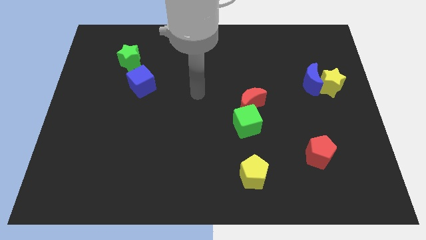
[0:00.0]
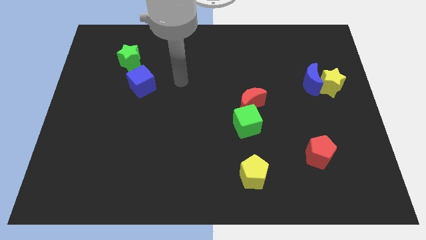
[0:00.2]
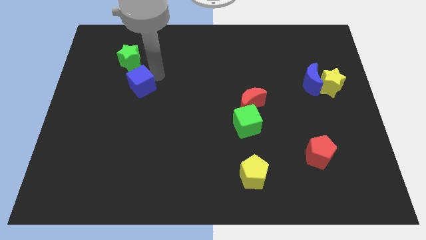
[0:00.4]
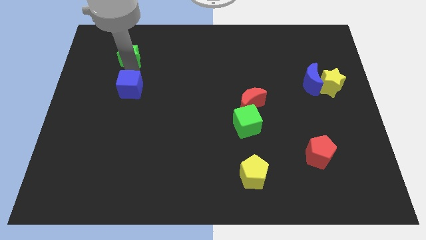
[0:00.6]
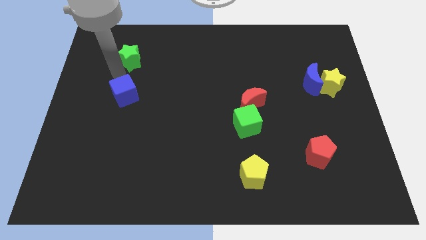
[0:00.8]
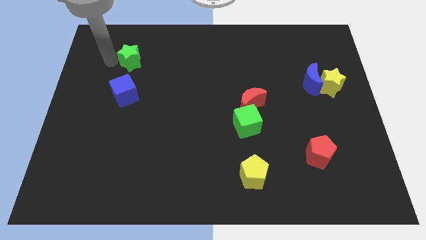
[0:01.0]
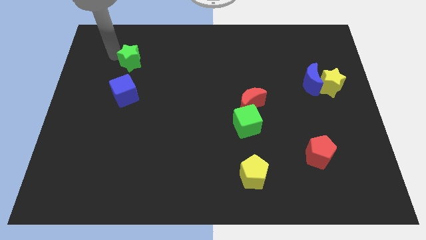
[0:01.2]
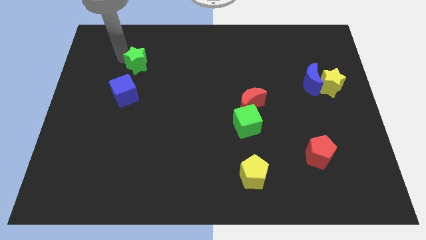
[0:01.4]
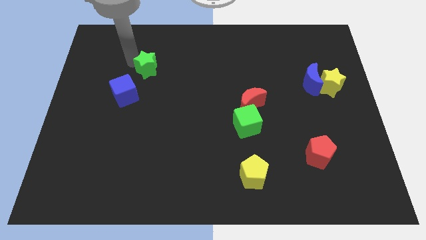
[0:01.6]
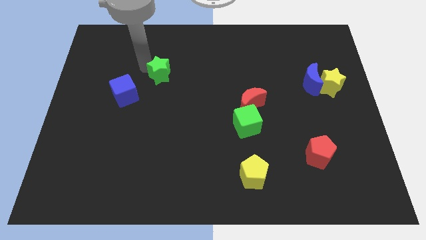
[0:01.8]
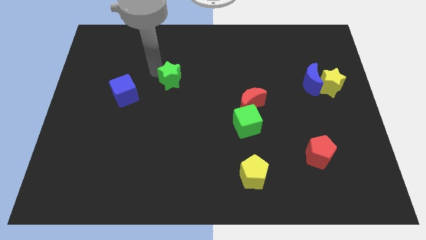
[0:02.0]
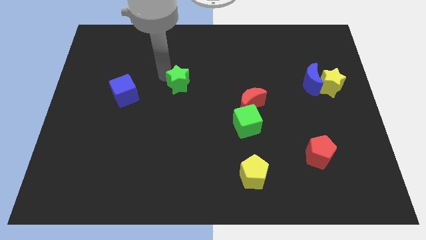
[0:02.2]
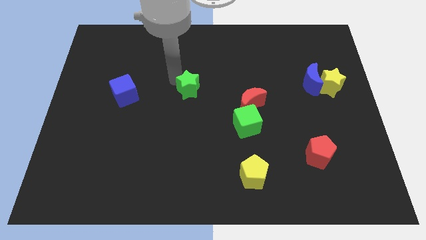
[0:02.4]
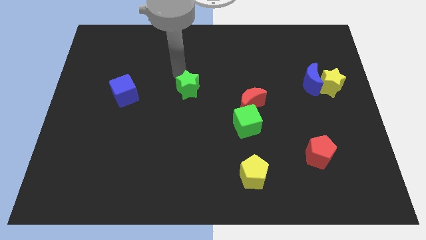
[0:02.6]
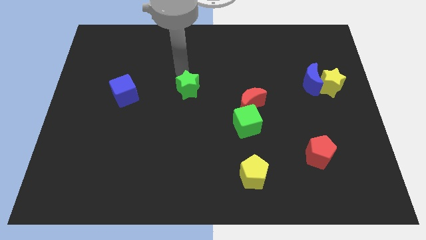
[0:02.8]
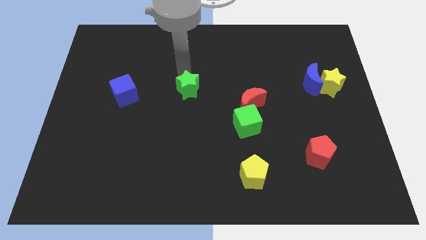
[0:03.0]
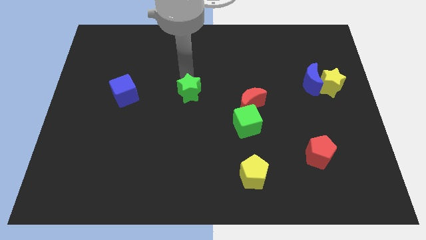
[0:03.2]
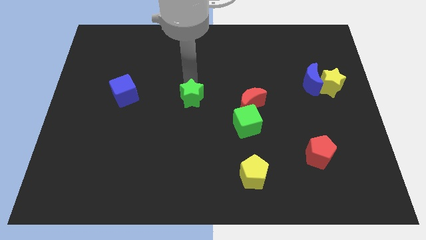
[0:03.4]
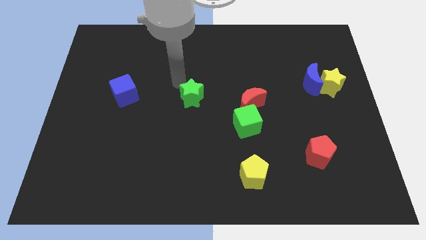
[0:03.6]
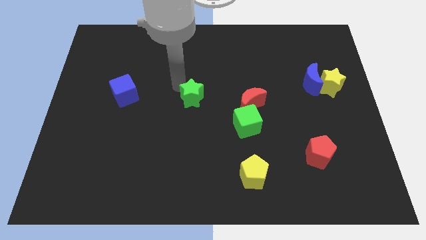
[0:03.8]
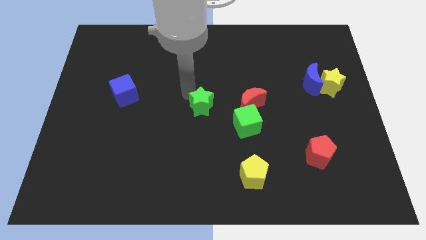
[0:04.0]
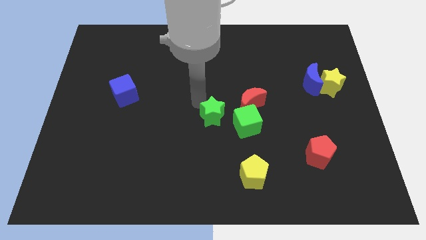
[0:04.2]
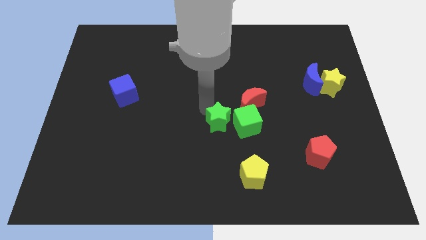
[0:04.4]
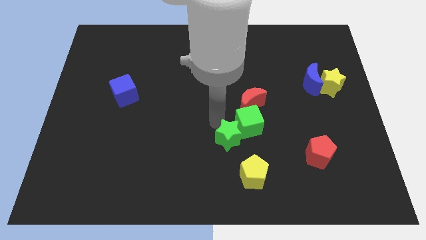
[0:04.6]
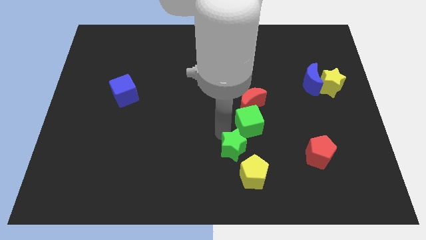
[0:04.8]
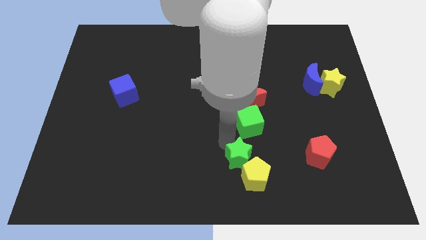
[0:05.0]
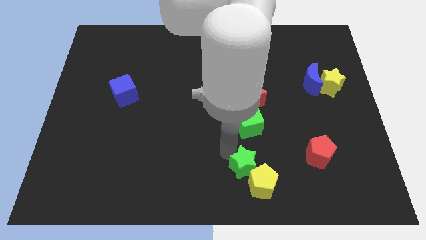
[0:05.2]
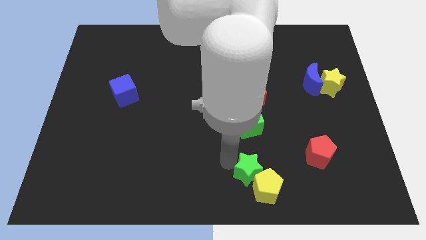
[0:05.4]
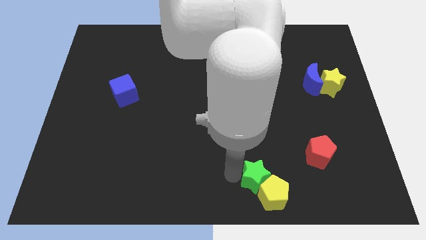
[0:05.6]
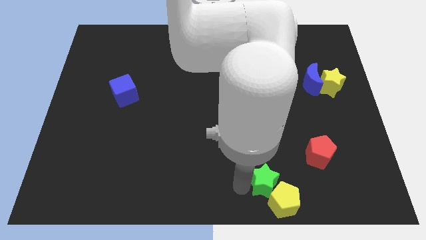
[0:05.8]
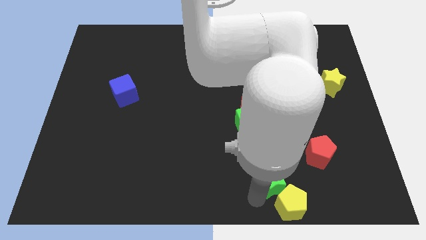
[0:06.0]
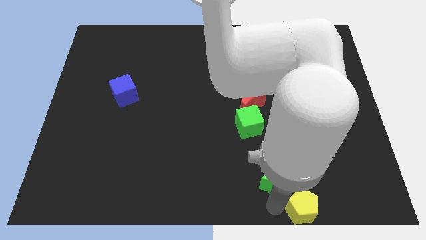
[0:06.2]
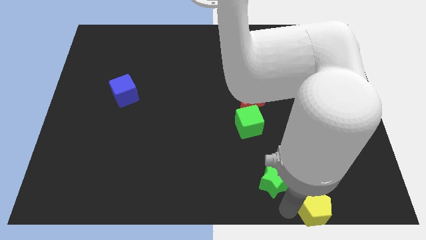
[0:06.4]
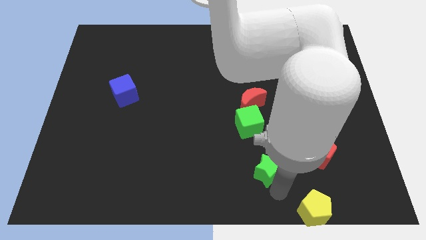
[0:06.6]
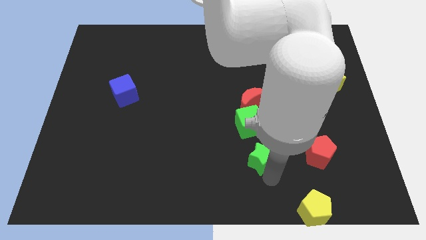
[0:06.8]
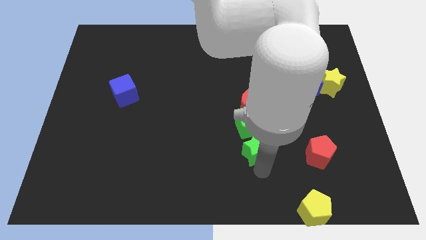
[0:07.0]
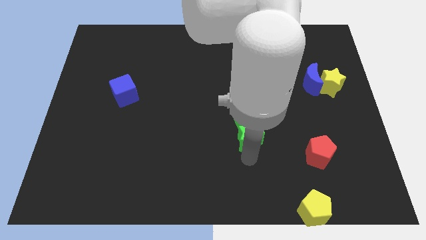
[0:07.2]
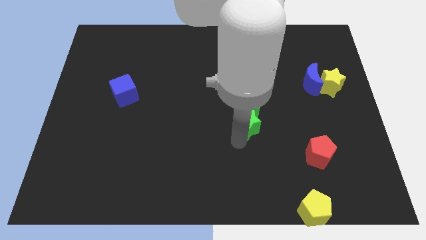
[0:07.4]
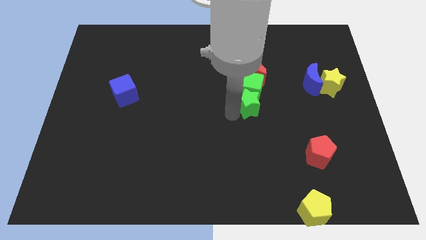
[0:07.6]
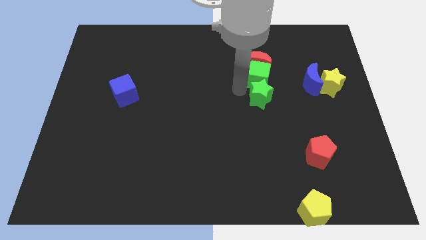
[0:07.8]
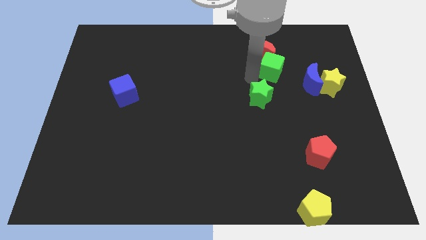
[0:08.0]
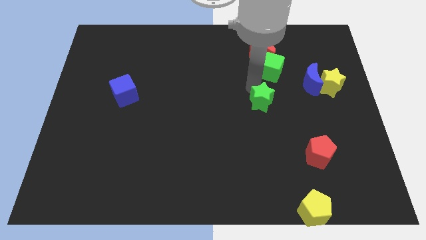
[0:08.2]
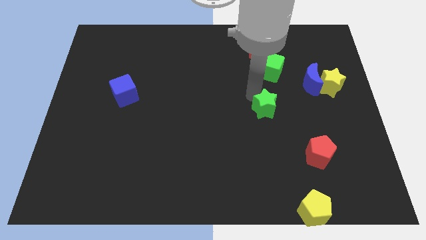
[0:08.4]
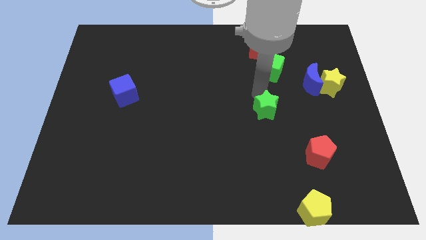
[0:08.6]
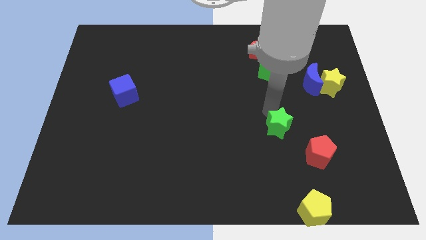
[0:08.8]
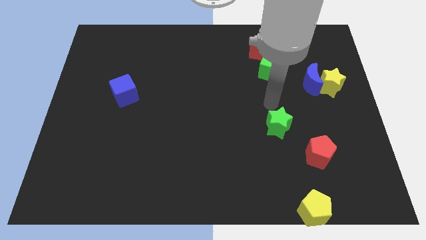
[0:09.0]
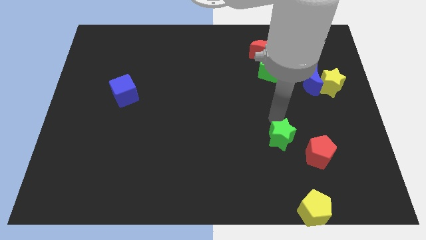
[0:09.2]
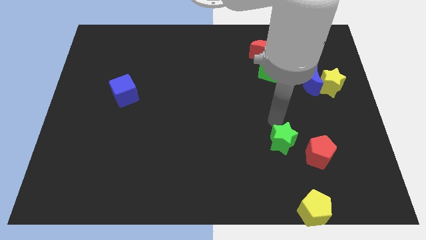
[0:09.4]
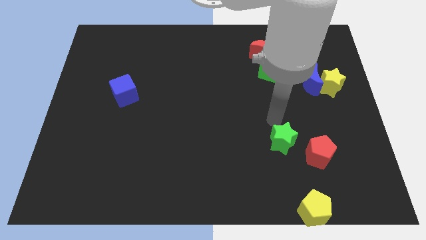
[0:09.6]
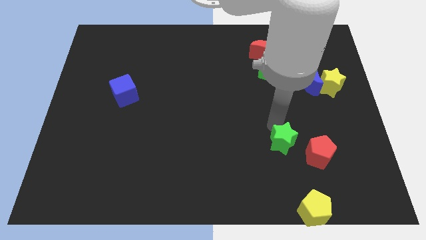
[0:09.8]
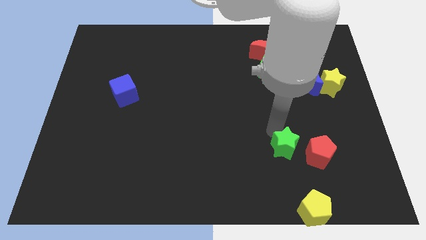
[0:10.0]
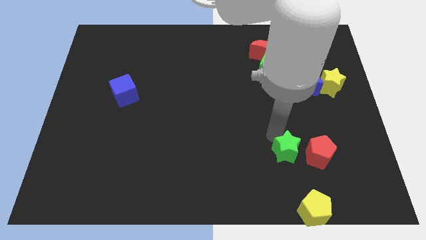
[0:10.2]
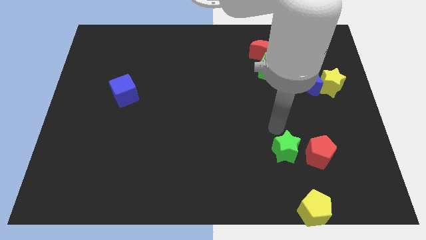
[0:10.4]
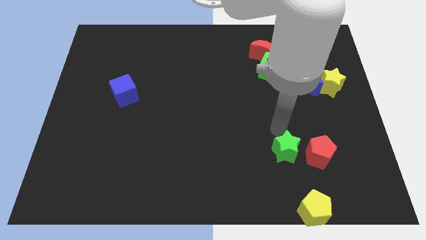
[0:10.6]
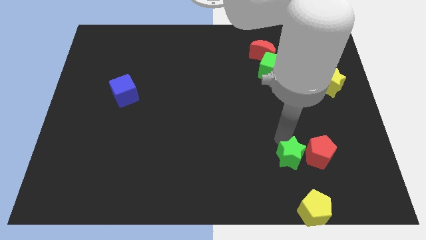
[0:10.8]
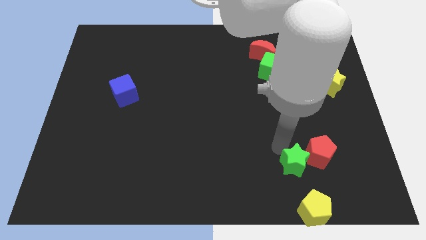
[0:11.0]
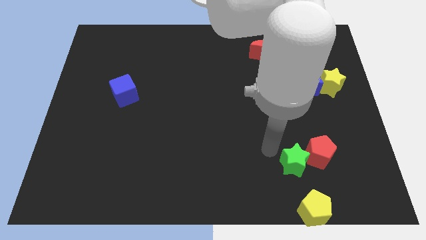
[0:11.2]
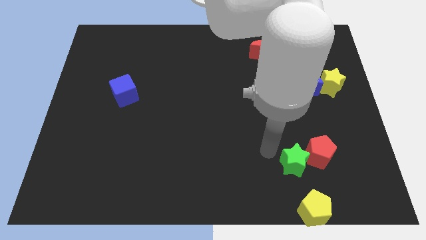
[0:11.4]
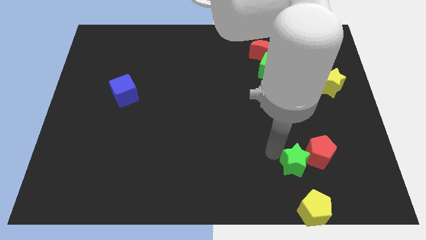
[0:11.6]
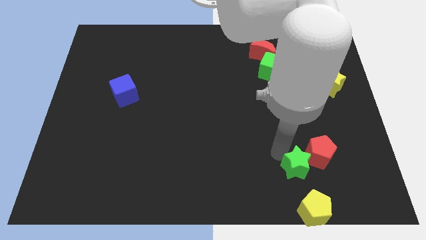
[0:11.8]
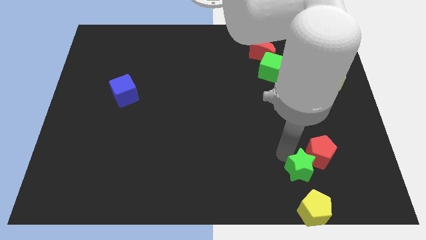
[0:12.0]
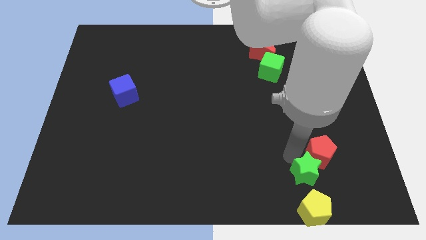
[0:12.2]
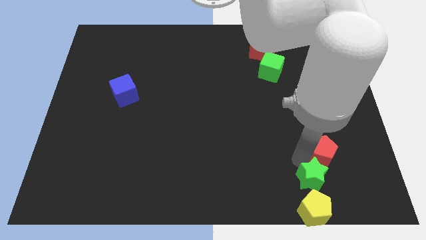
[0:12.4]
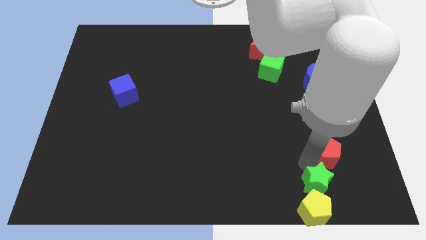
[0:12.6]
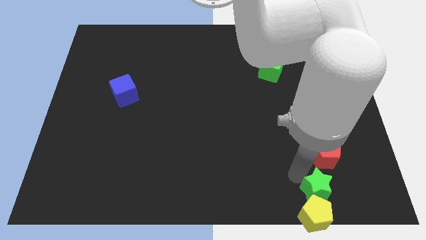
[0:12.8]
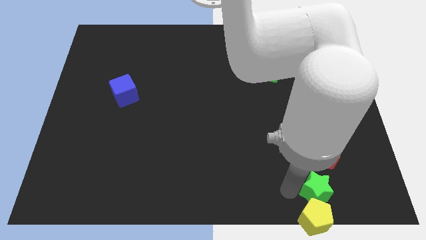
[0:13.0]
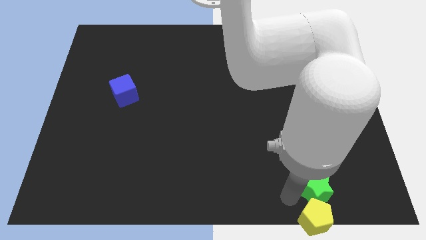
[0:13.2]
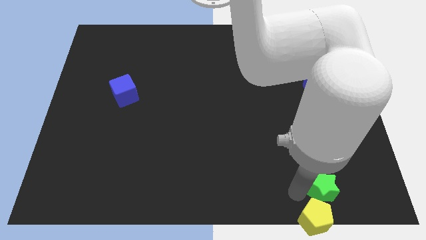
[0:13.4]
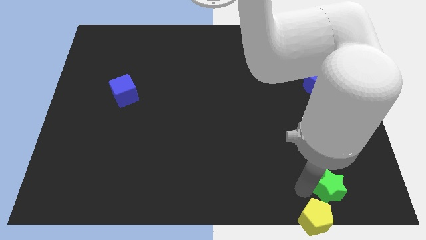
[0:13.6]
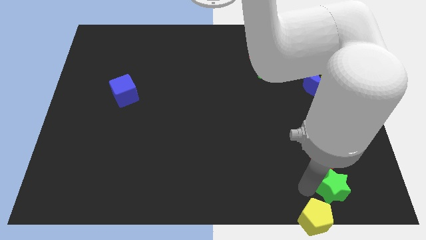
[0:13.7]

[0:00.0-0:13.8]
put the green star to the bottom right of the red pentagon
